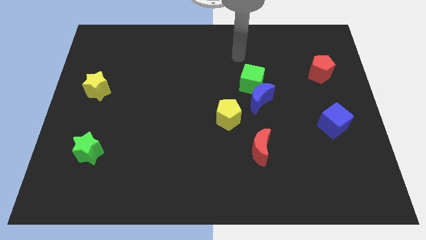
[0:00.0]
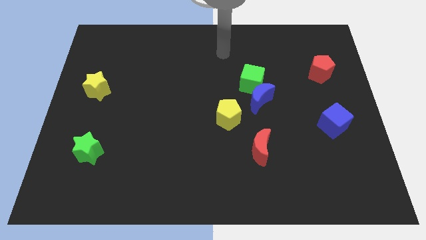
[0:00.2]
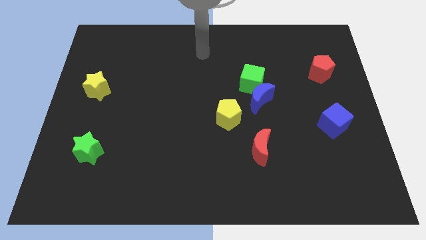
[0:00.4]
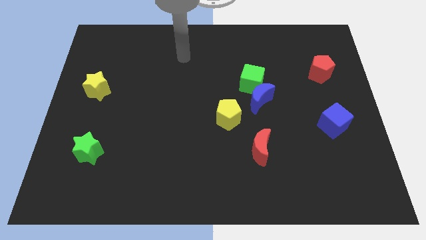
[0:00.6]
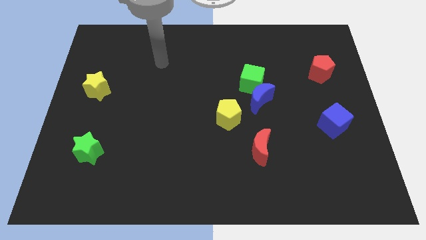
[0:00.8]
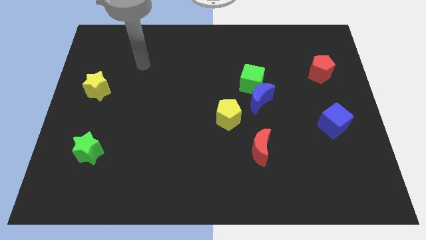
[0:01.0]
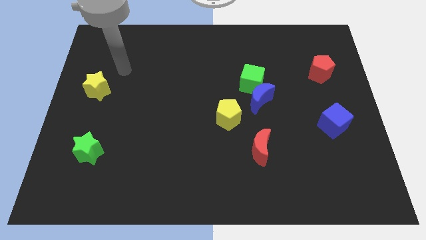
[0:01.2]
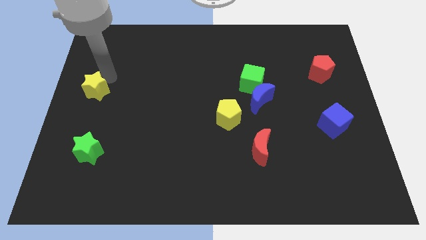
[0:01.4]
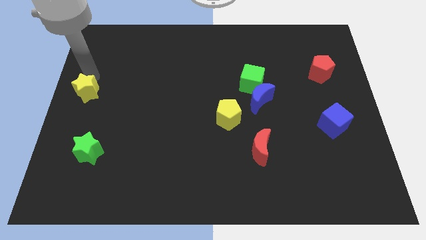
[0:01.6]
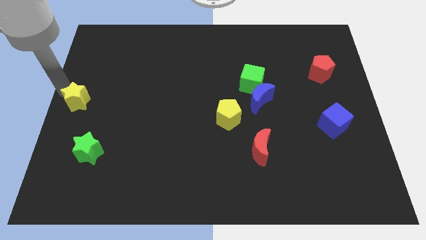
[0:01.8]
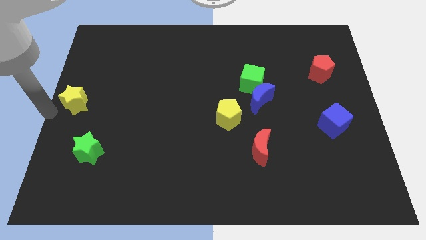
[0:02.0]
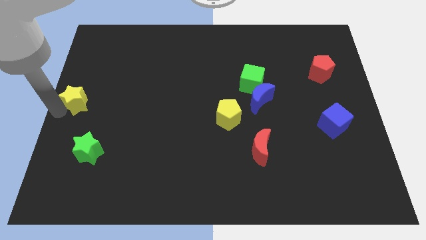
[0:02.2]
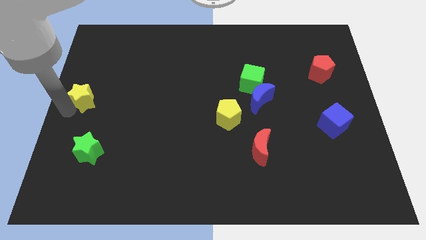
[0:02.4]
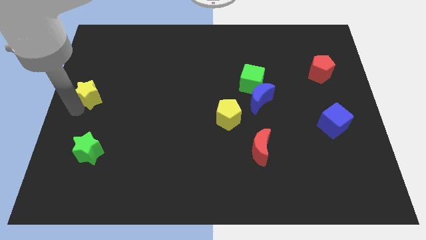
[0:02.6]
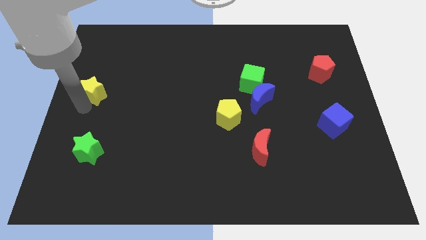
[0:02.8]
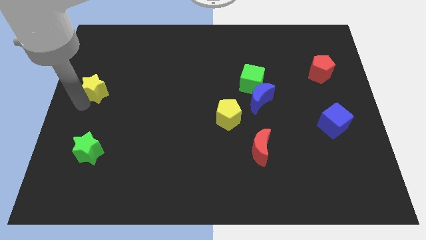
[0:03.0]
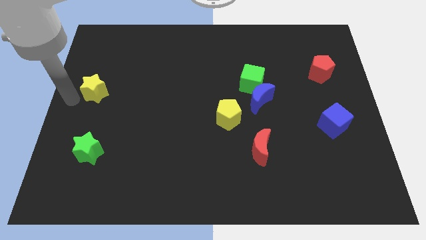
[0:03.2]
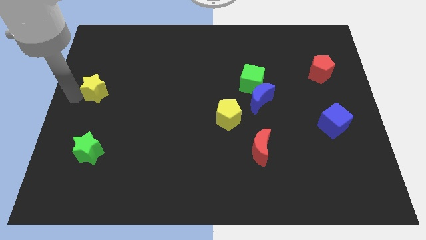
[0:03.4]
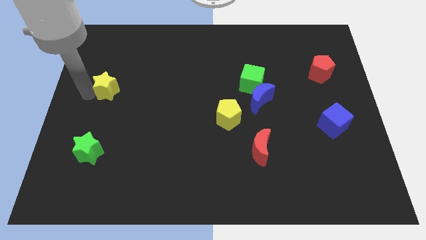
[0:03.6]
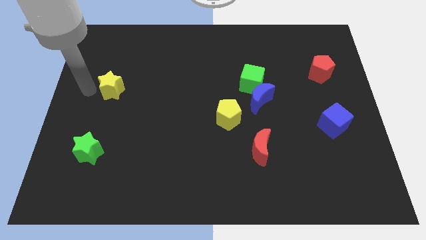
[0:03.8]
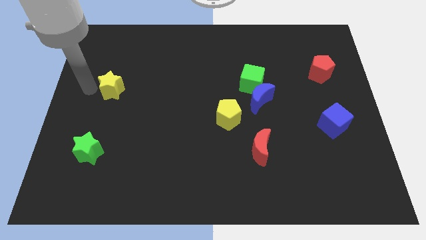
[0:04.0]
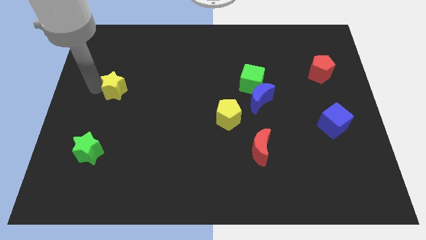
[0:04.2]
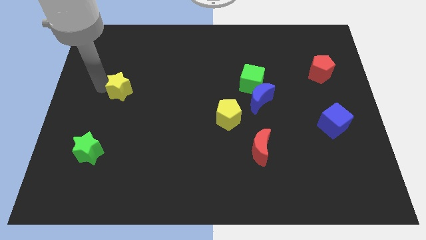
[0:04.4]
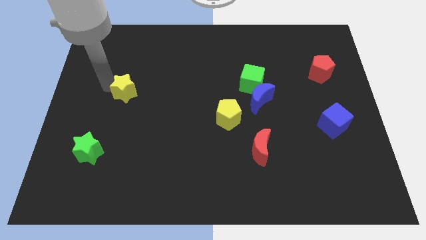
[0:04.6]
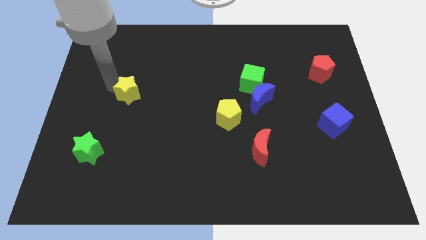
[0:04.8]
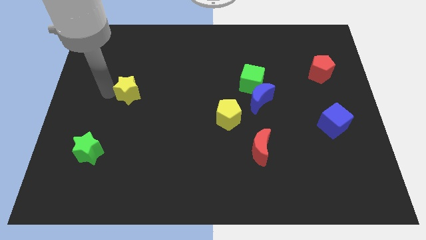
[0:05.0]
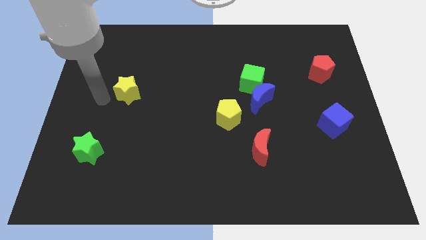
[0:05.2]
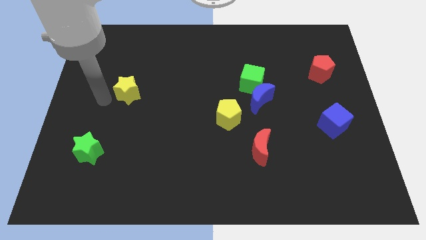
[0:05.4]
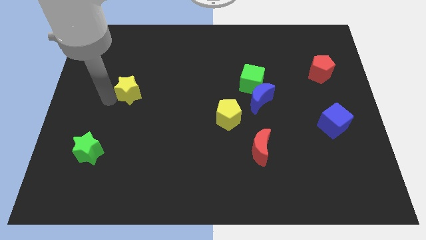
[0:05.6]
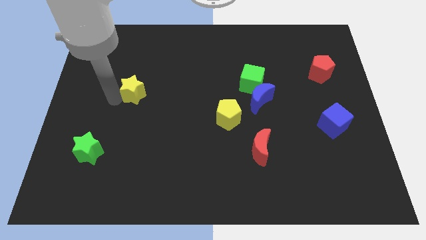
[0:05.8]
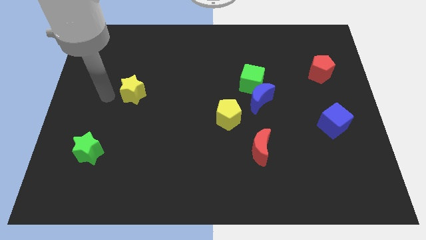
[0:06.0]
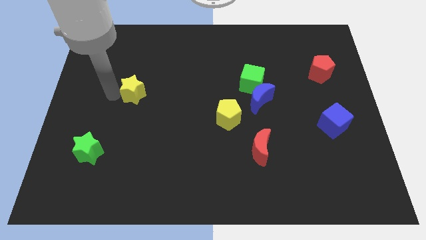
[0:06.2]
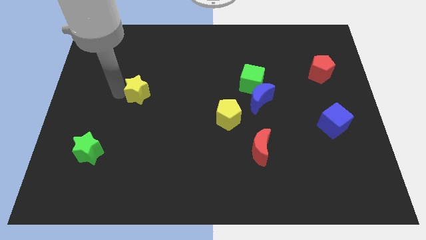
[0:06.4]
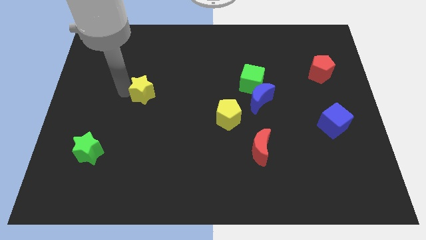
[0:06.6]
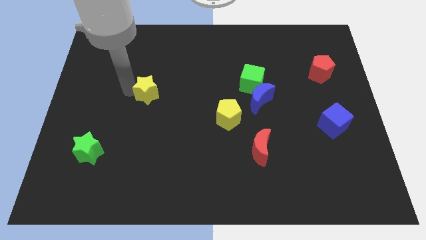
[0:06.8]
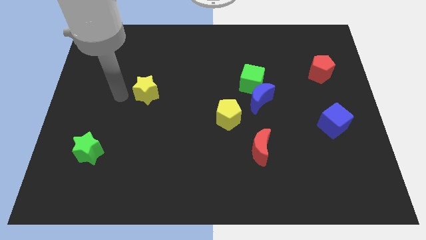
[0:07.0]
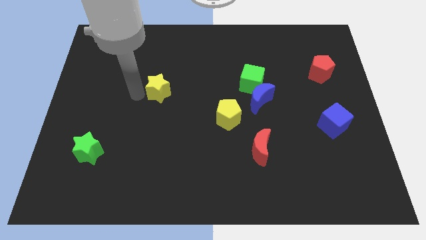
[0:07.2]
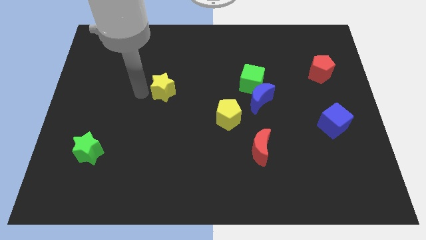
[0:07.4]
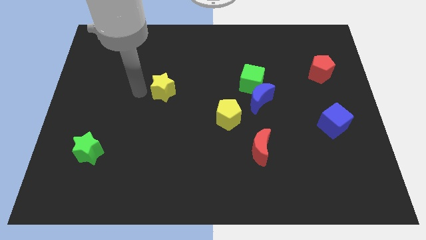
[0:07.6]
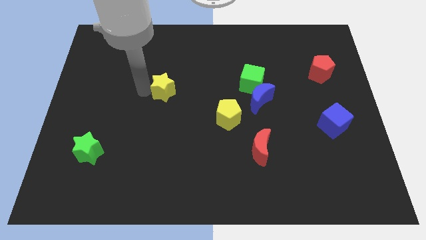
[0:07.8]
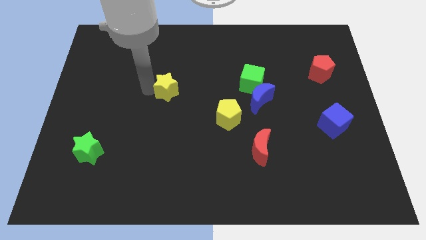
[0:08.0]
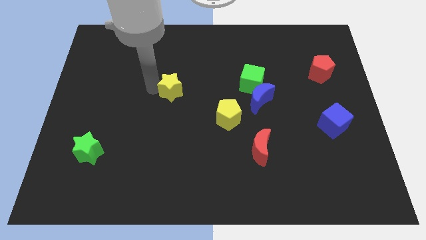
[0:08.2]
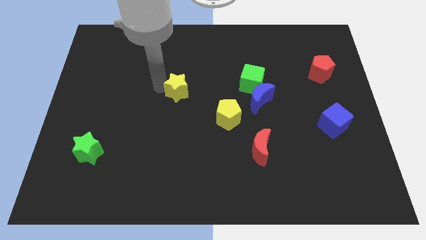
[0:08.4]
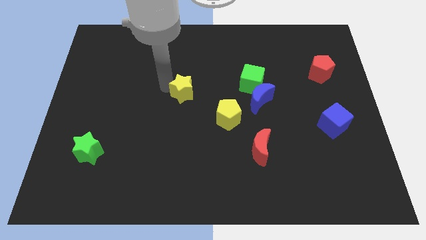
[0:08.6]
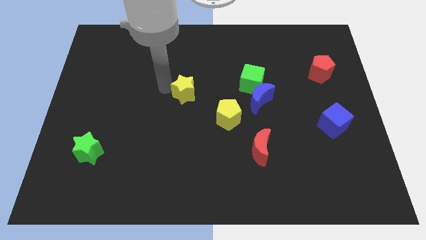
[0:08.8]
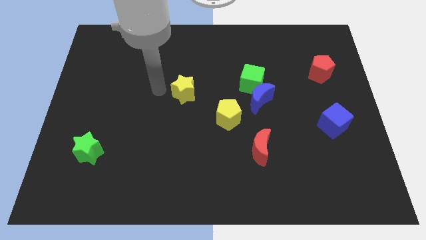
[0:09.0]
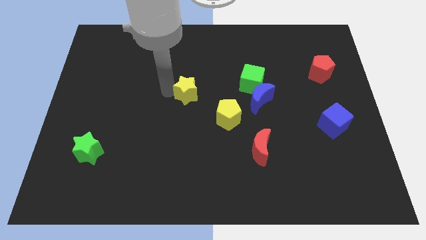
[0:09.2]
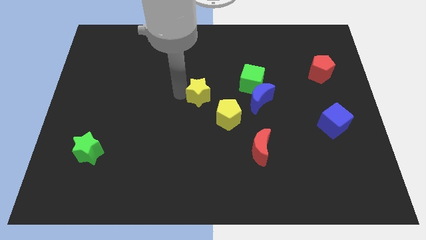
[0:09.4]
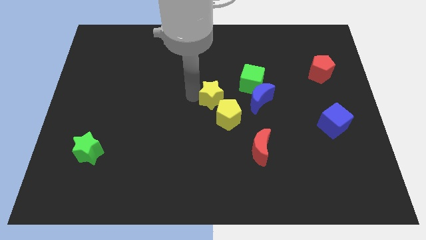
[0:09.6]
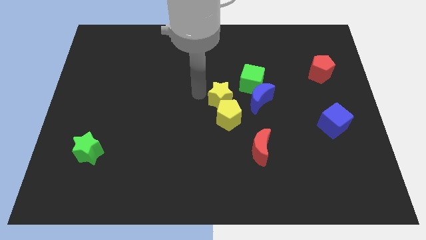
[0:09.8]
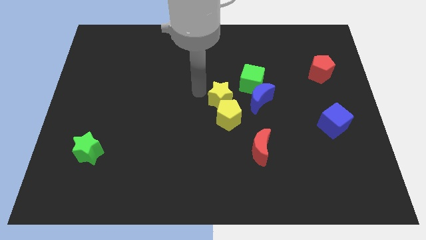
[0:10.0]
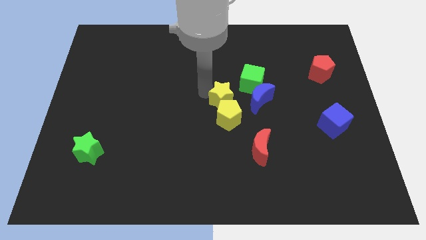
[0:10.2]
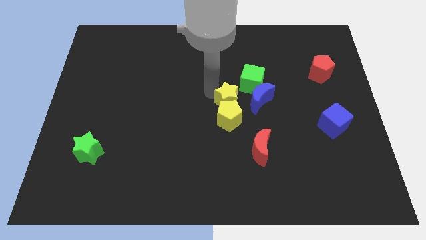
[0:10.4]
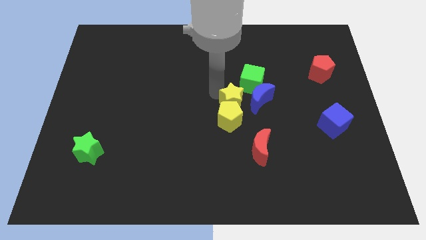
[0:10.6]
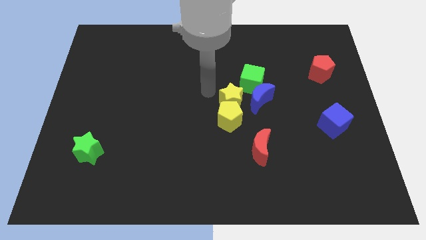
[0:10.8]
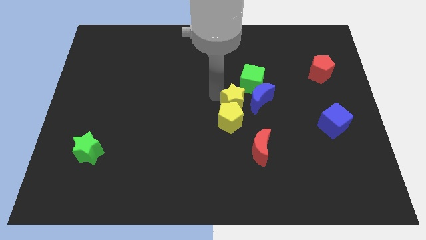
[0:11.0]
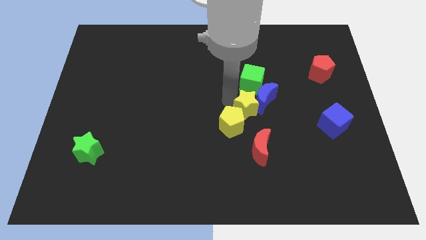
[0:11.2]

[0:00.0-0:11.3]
slide the yellow star just right of the yellow pentagon

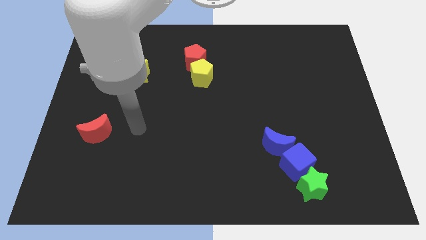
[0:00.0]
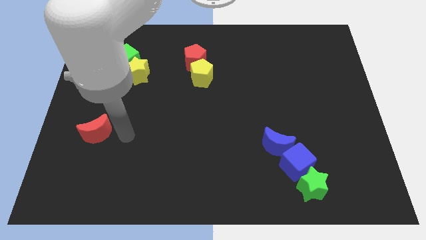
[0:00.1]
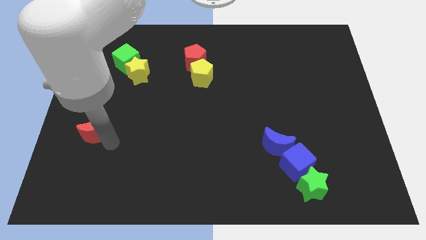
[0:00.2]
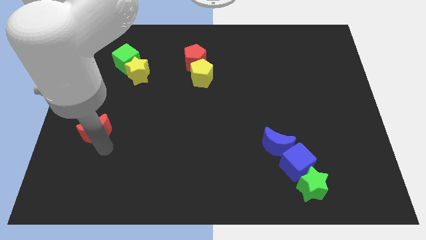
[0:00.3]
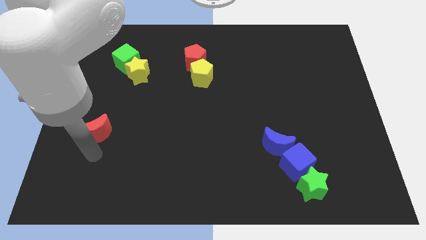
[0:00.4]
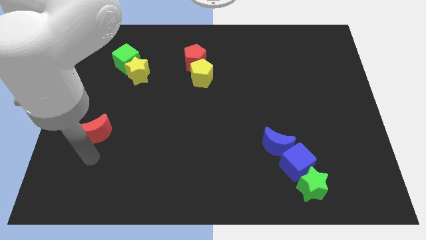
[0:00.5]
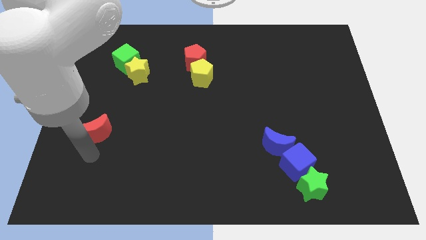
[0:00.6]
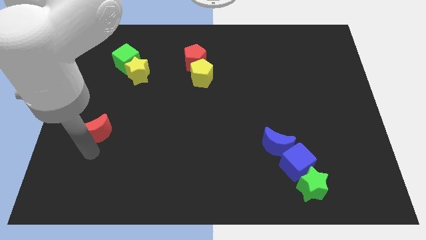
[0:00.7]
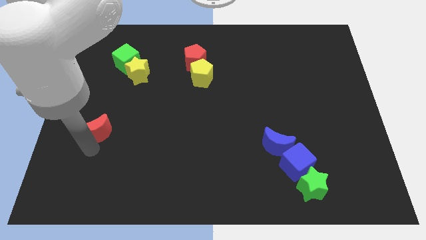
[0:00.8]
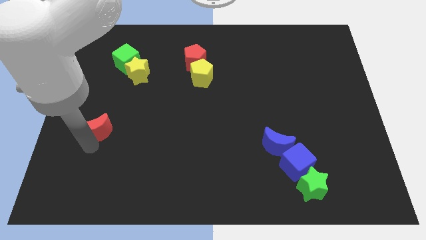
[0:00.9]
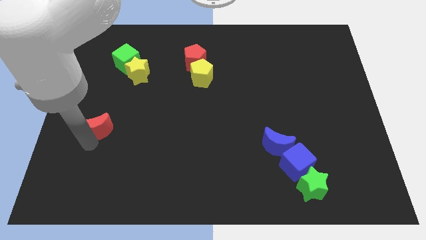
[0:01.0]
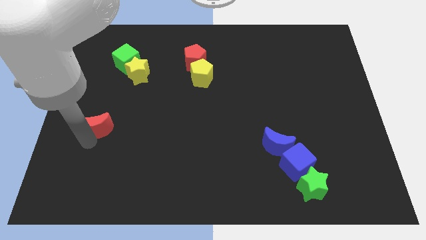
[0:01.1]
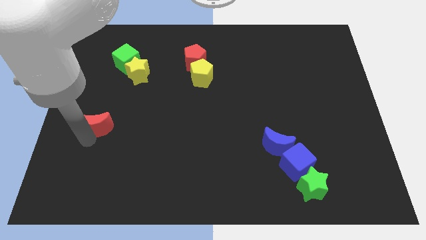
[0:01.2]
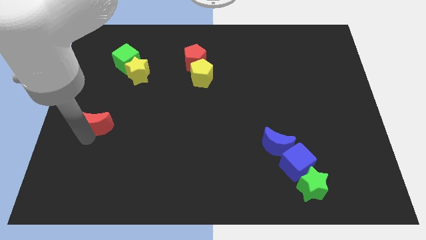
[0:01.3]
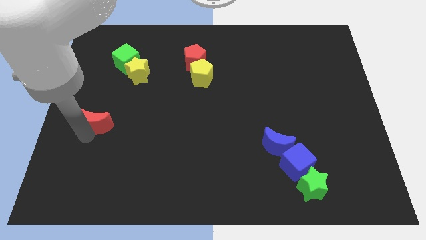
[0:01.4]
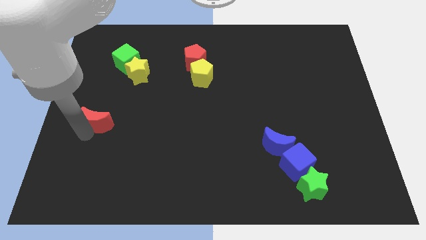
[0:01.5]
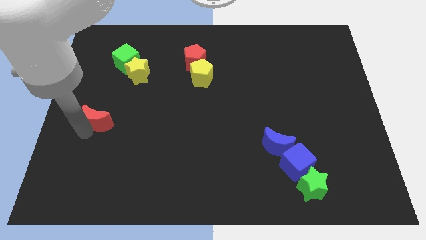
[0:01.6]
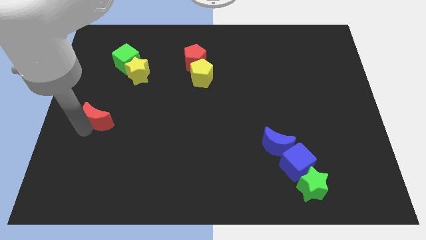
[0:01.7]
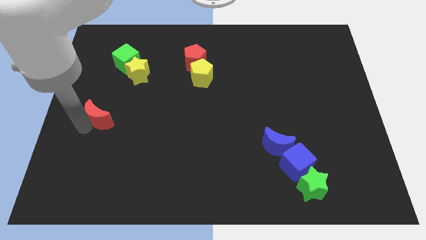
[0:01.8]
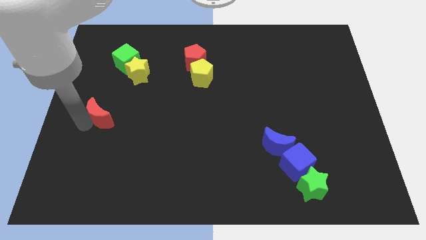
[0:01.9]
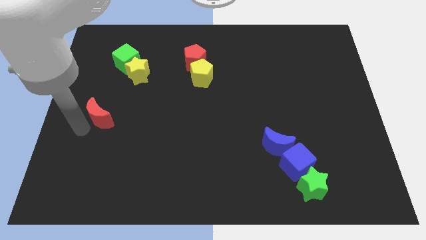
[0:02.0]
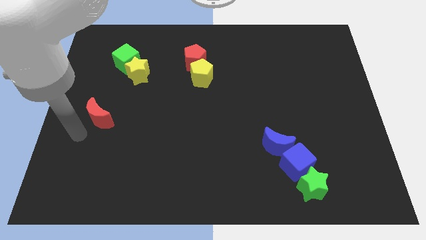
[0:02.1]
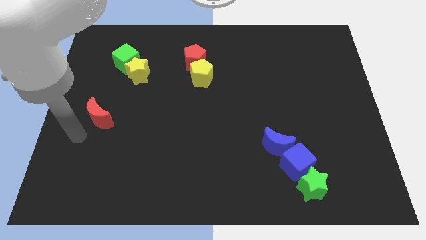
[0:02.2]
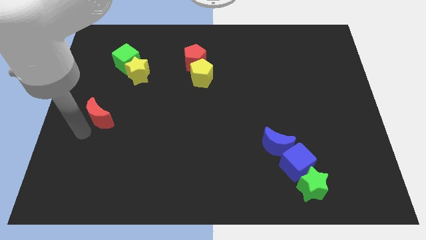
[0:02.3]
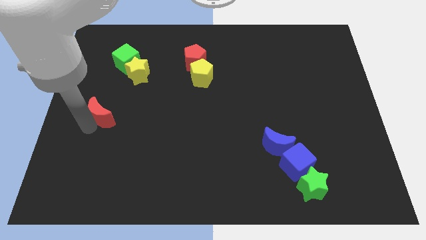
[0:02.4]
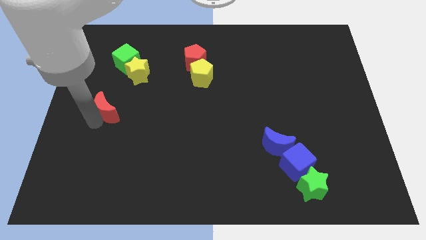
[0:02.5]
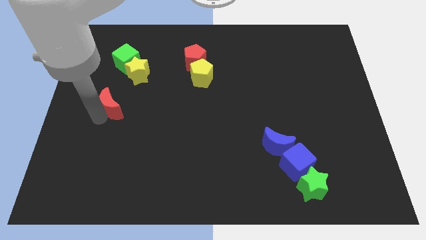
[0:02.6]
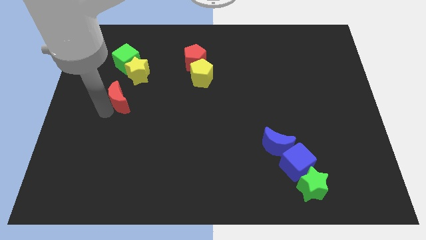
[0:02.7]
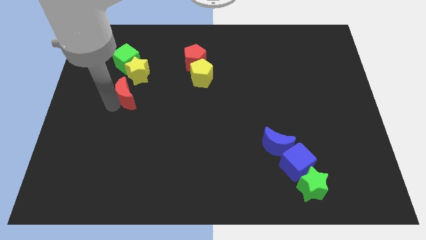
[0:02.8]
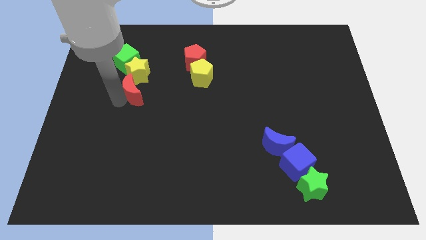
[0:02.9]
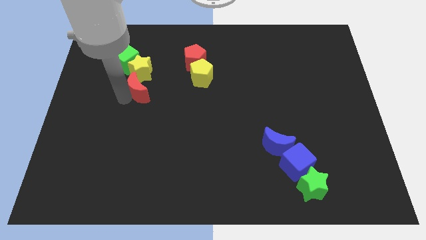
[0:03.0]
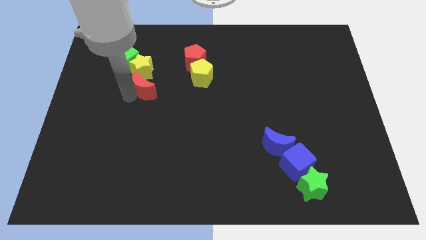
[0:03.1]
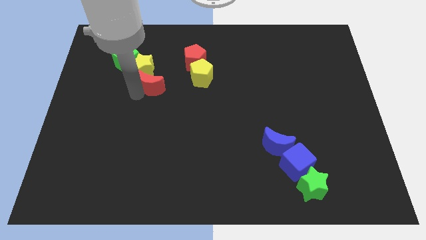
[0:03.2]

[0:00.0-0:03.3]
put the red moon just left of the yellow pentagon
